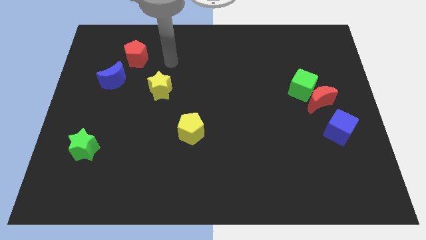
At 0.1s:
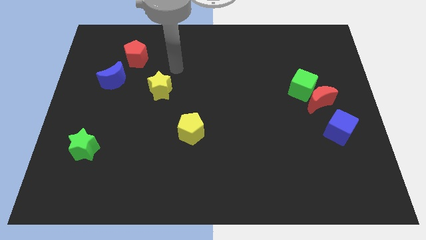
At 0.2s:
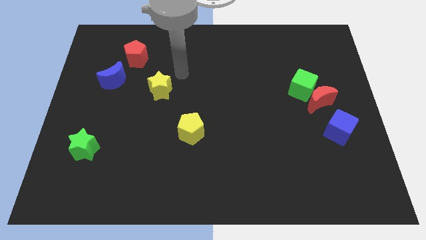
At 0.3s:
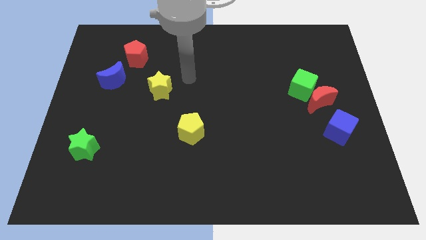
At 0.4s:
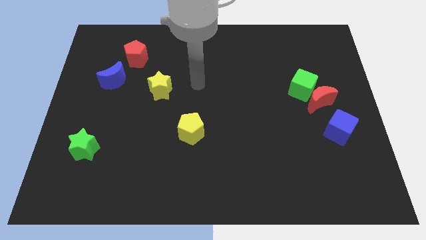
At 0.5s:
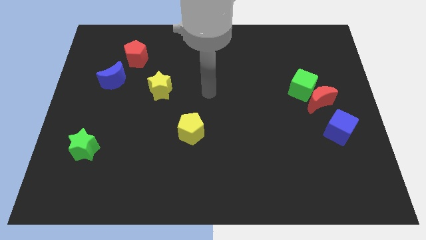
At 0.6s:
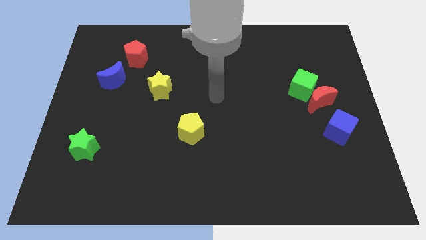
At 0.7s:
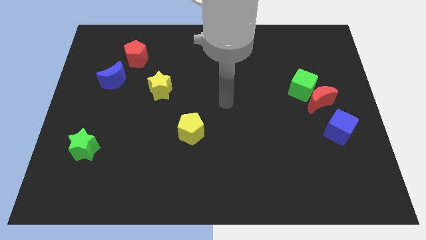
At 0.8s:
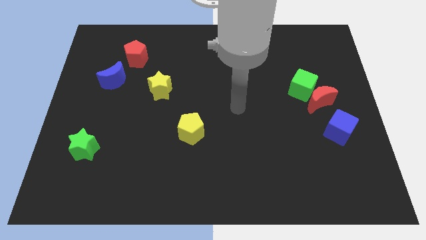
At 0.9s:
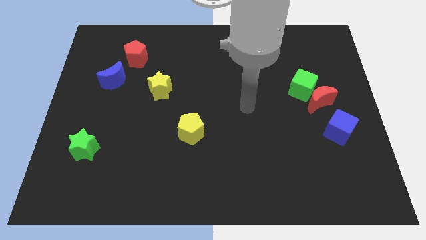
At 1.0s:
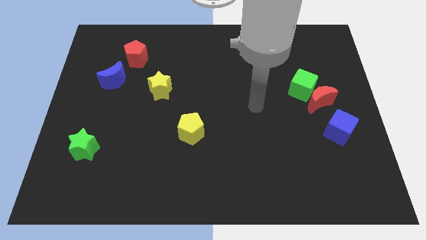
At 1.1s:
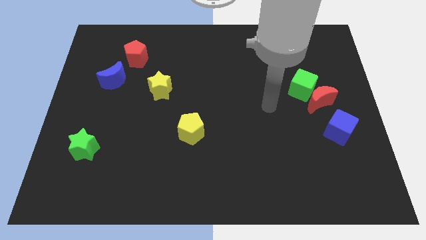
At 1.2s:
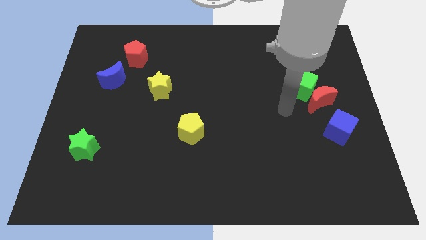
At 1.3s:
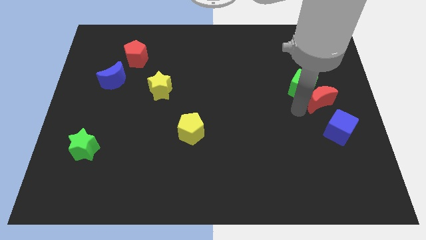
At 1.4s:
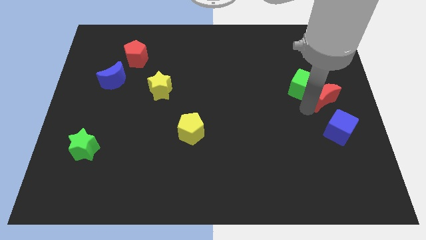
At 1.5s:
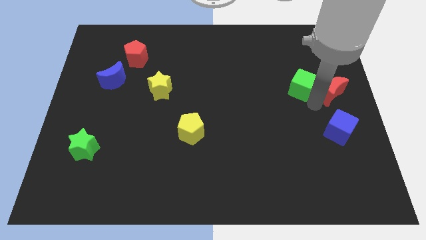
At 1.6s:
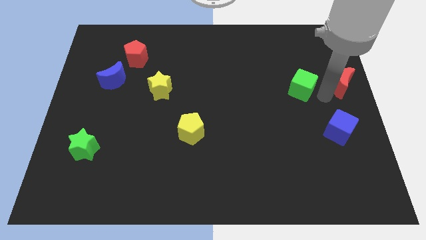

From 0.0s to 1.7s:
move the green cube away from the red moon

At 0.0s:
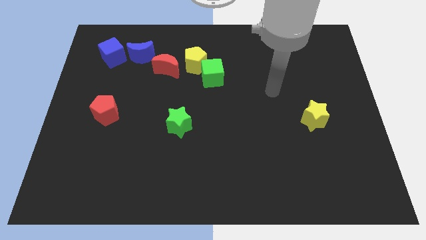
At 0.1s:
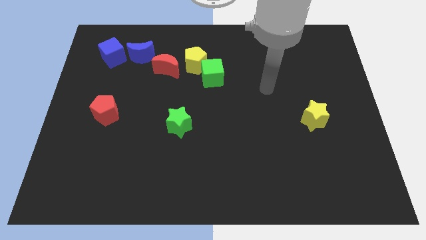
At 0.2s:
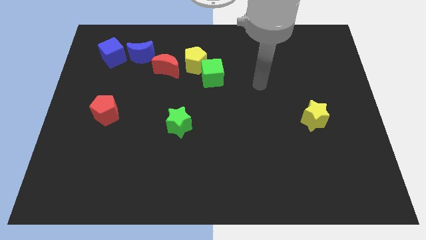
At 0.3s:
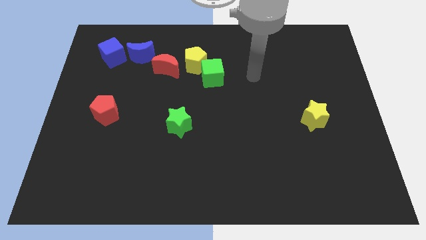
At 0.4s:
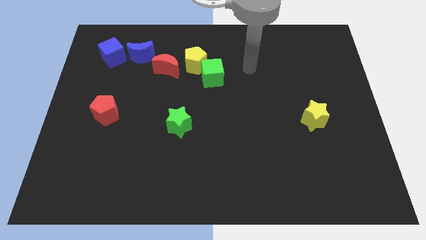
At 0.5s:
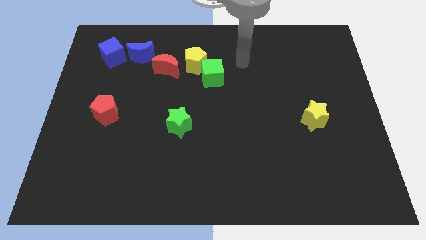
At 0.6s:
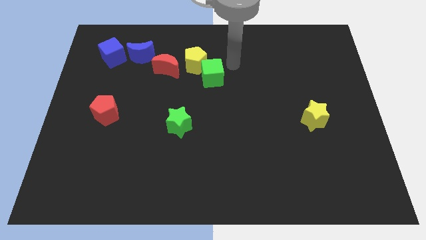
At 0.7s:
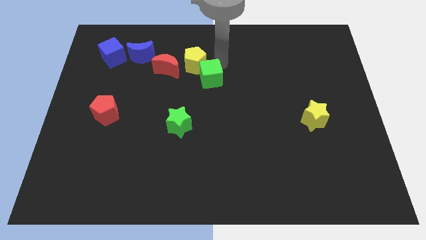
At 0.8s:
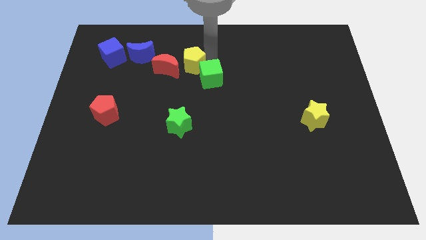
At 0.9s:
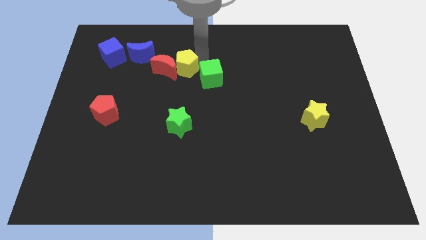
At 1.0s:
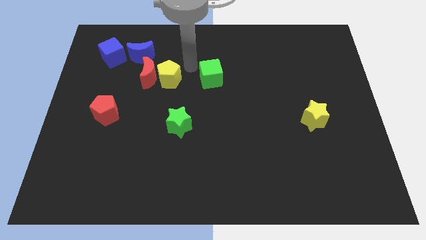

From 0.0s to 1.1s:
move the green cube away from the yellow pentagon

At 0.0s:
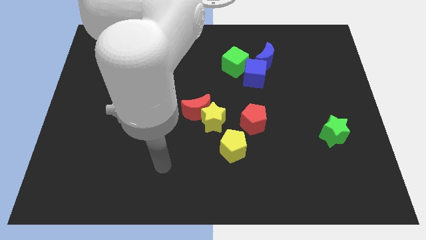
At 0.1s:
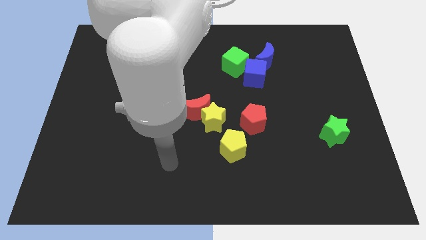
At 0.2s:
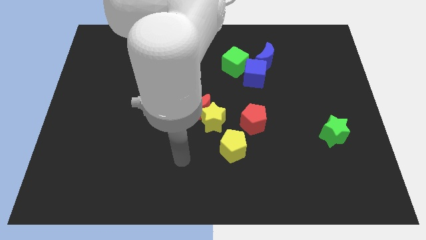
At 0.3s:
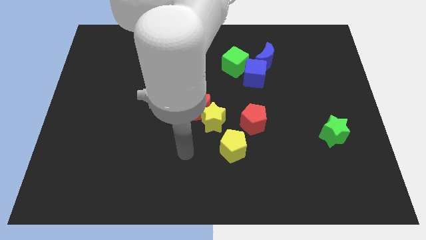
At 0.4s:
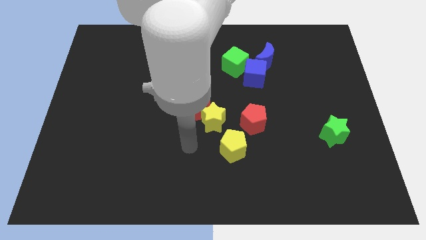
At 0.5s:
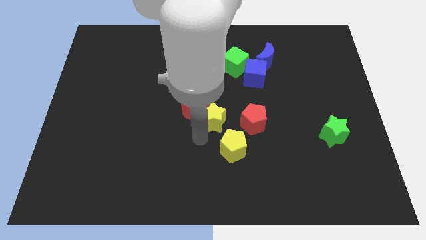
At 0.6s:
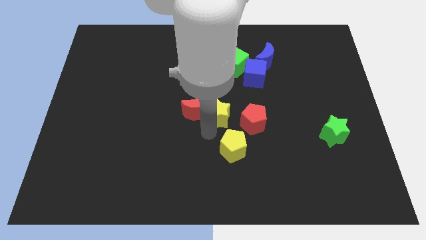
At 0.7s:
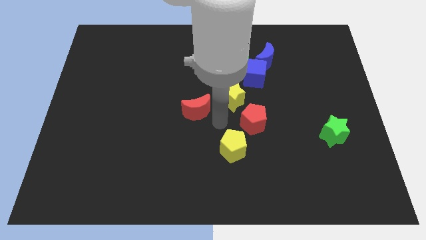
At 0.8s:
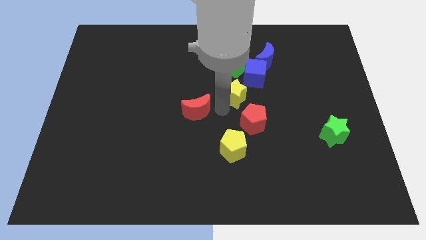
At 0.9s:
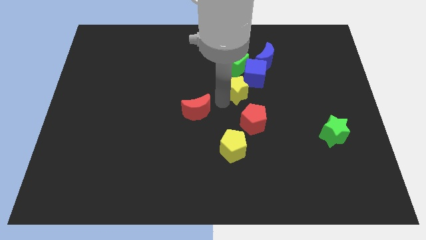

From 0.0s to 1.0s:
move the red moon away from the yellow star

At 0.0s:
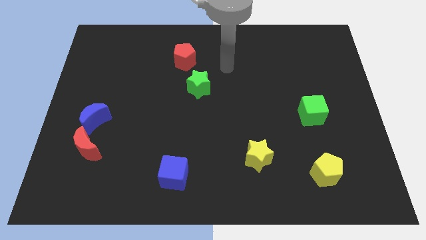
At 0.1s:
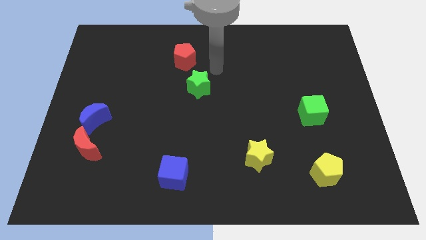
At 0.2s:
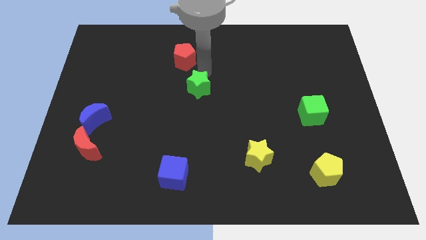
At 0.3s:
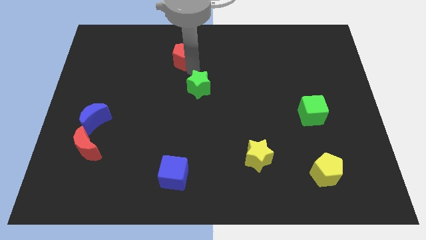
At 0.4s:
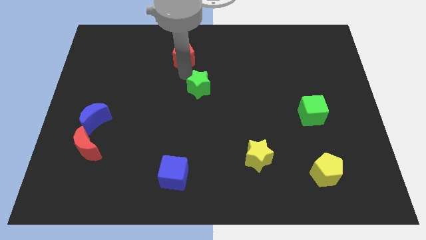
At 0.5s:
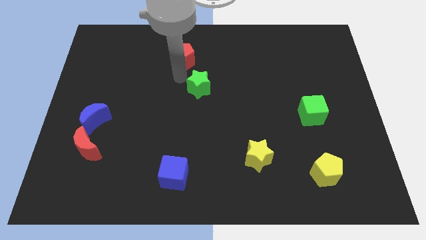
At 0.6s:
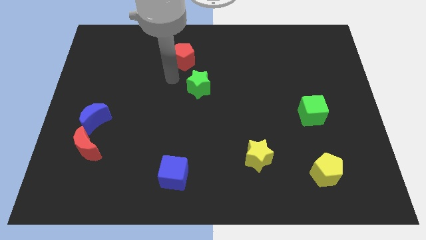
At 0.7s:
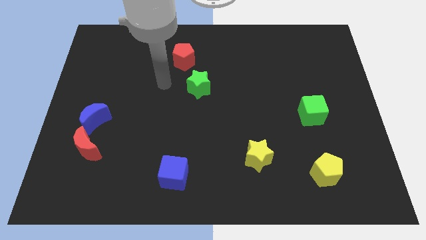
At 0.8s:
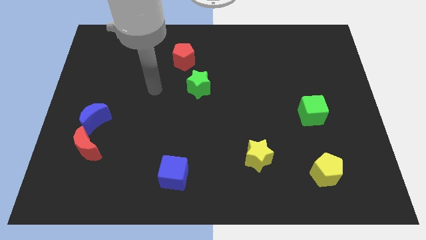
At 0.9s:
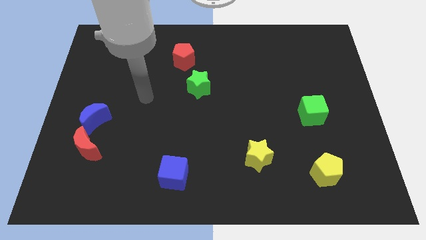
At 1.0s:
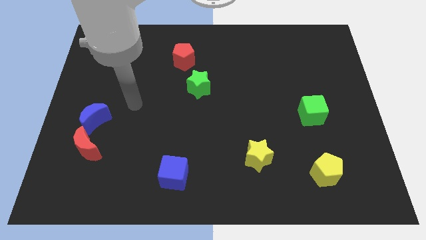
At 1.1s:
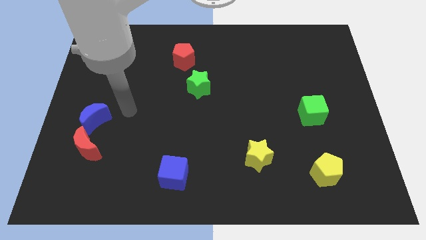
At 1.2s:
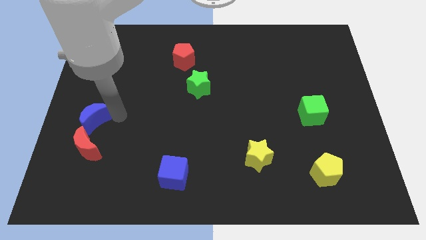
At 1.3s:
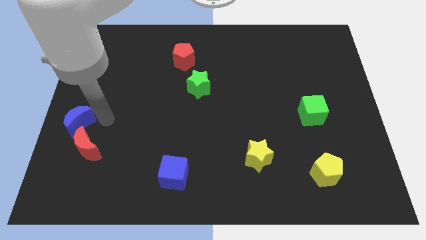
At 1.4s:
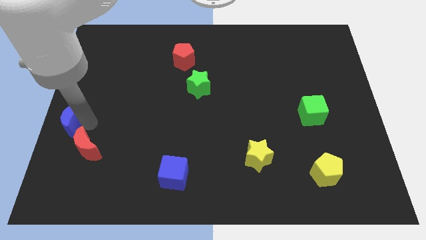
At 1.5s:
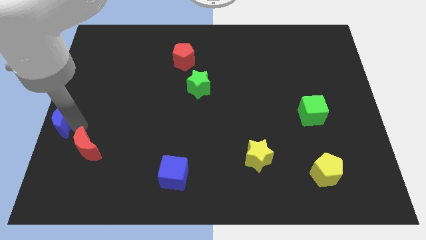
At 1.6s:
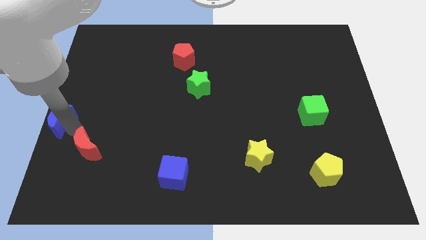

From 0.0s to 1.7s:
move the red moon away from the blue moon

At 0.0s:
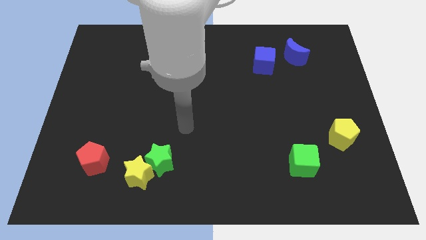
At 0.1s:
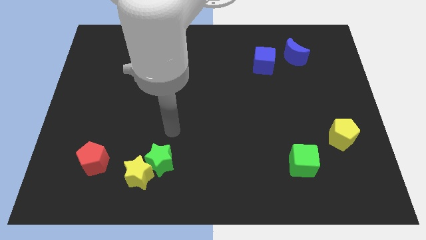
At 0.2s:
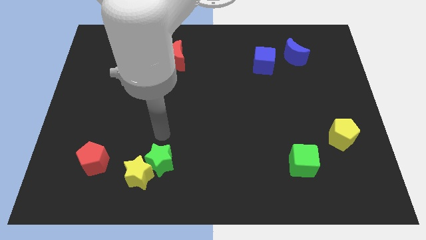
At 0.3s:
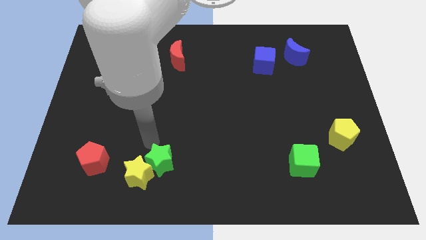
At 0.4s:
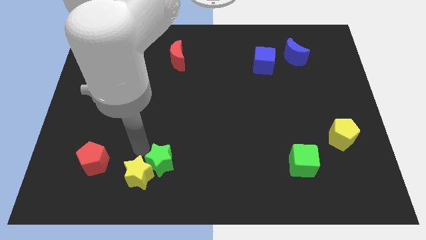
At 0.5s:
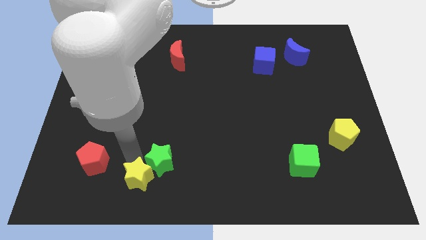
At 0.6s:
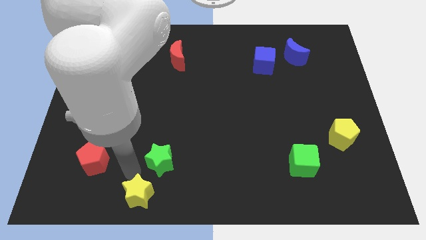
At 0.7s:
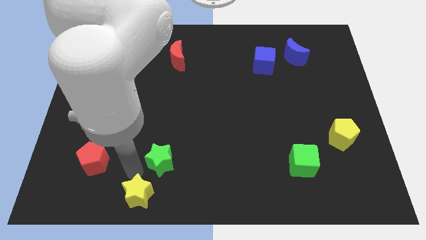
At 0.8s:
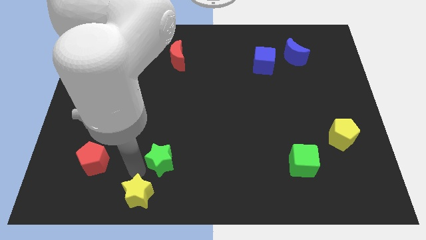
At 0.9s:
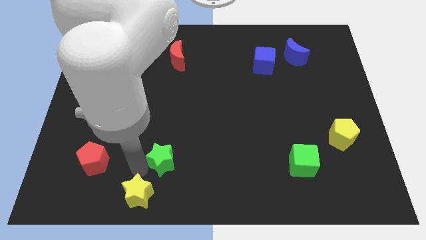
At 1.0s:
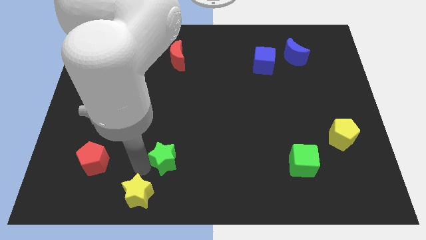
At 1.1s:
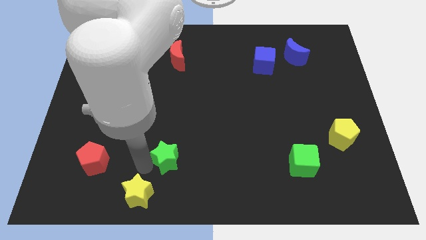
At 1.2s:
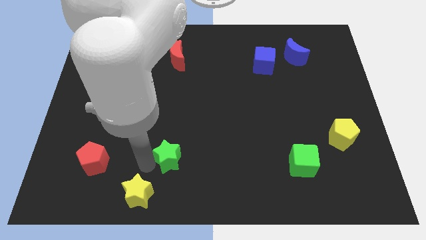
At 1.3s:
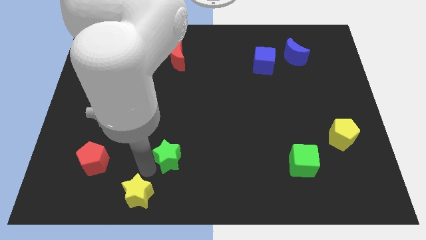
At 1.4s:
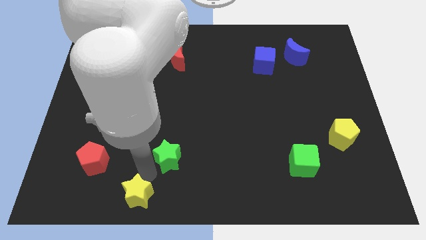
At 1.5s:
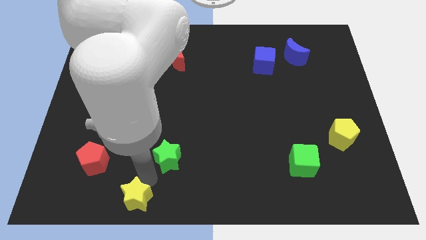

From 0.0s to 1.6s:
move the green star away from the yellow star

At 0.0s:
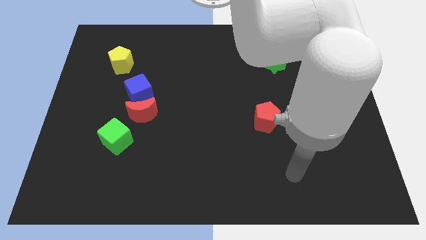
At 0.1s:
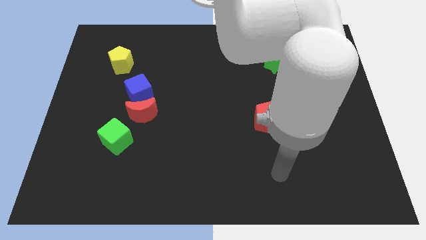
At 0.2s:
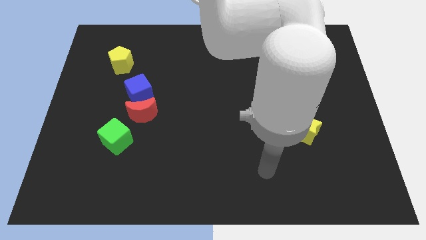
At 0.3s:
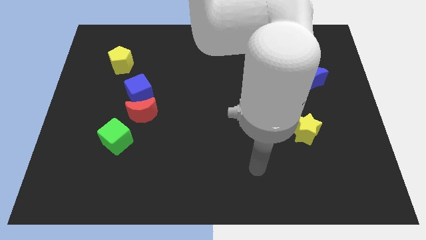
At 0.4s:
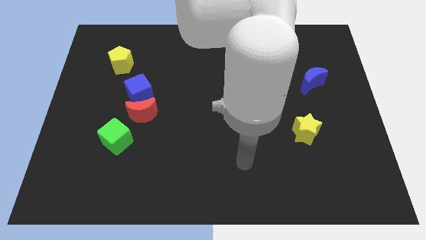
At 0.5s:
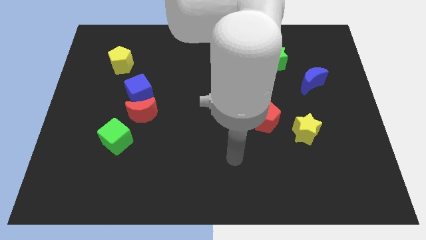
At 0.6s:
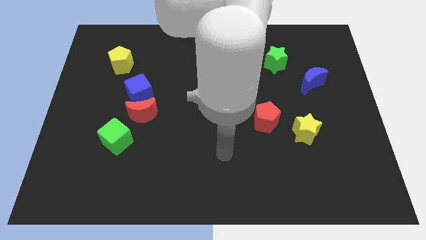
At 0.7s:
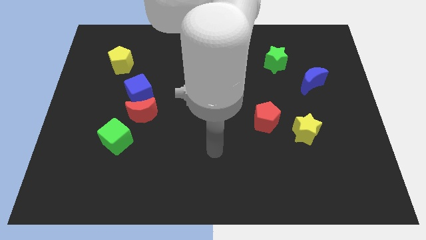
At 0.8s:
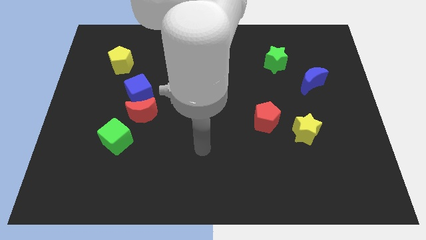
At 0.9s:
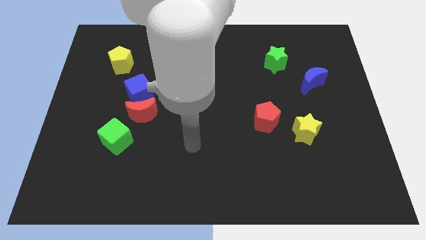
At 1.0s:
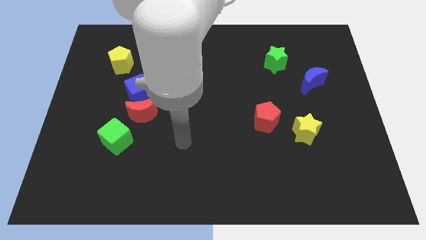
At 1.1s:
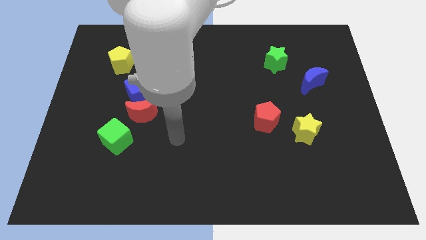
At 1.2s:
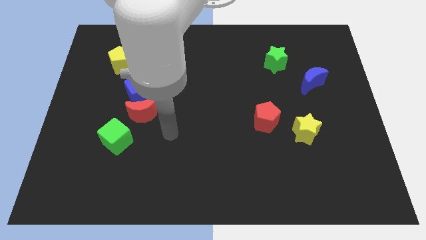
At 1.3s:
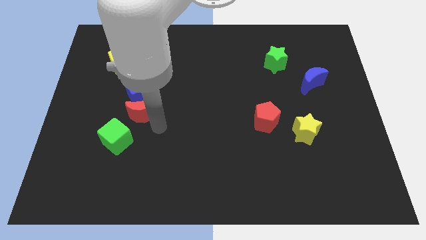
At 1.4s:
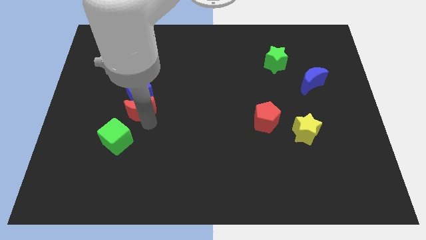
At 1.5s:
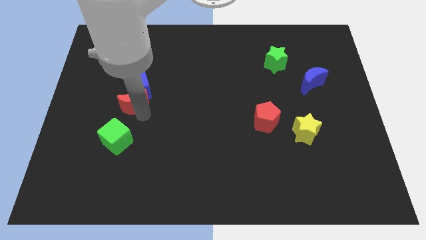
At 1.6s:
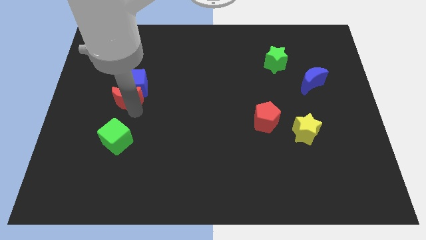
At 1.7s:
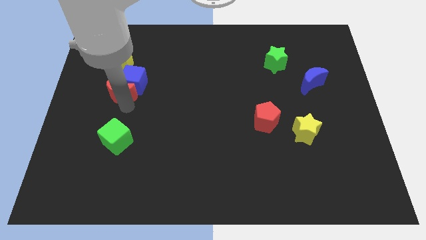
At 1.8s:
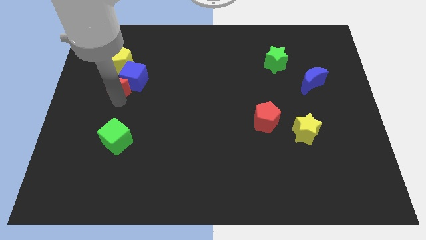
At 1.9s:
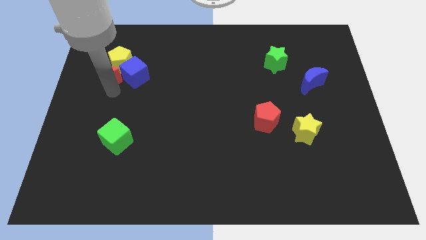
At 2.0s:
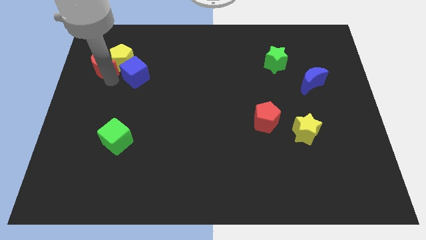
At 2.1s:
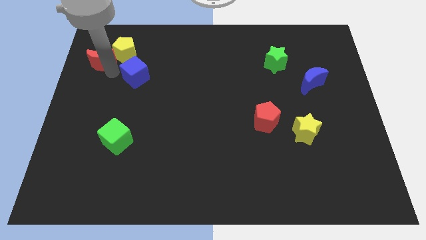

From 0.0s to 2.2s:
pull the blue cube apart from the red moon

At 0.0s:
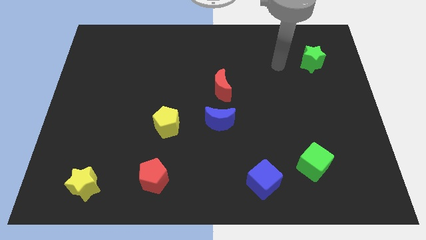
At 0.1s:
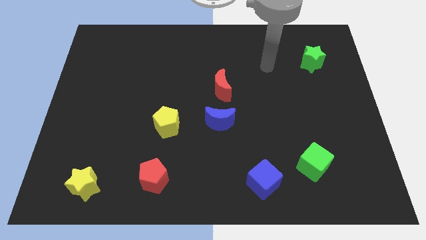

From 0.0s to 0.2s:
pull the red moon apart from the blue moon
